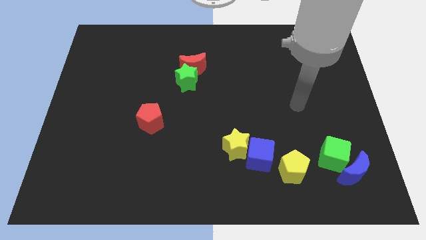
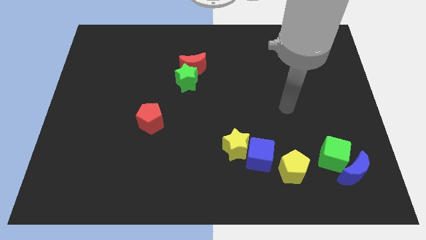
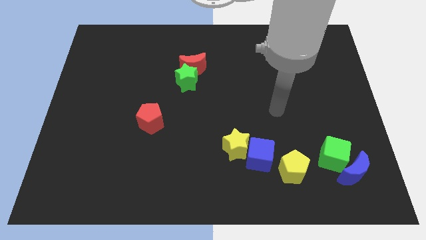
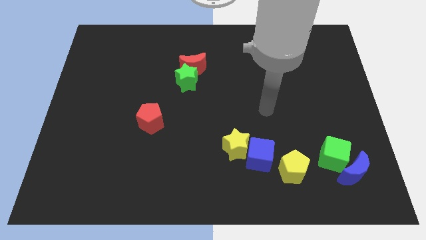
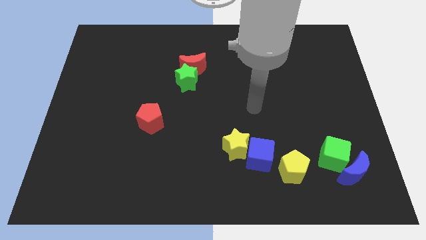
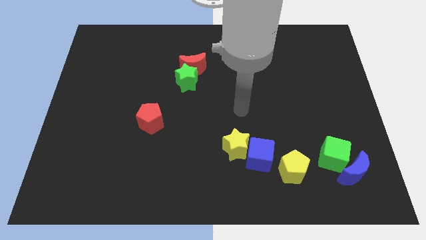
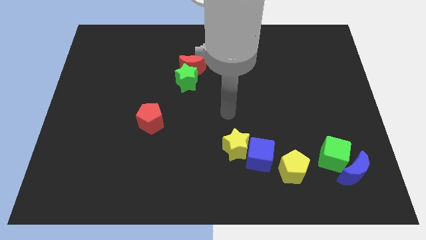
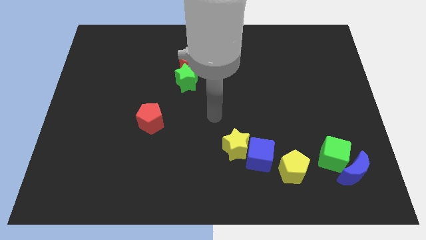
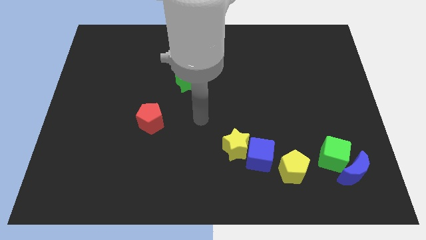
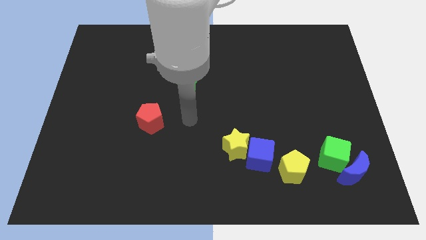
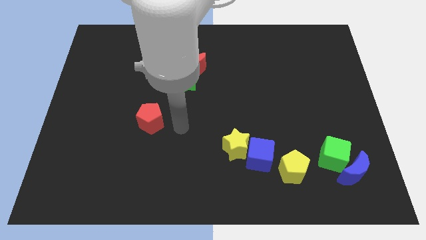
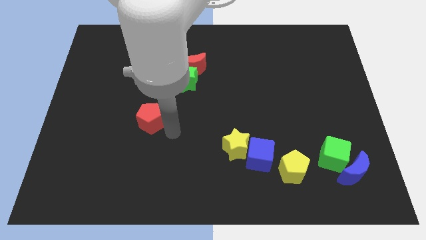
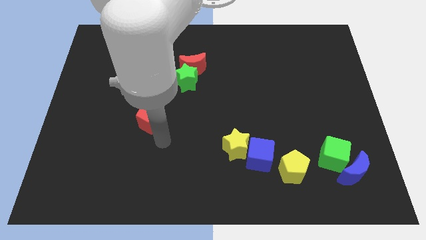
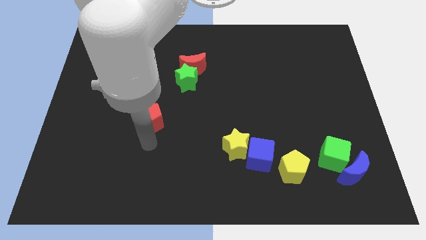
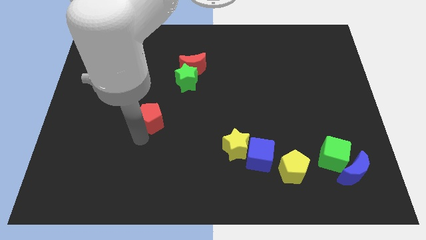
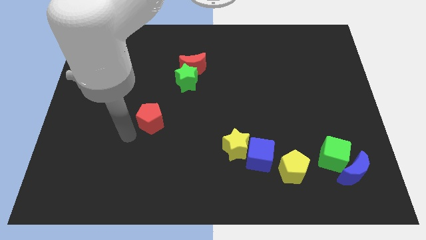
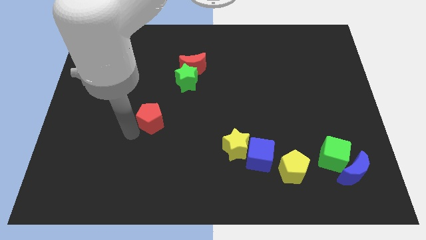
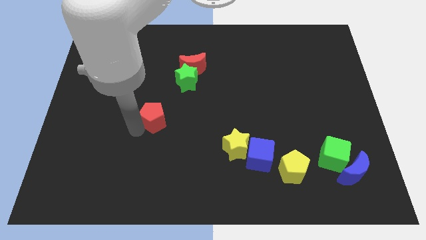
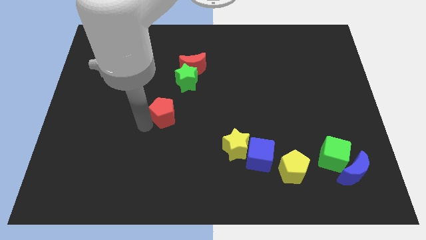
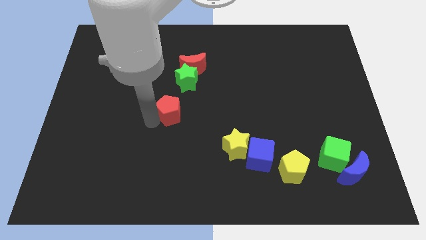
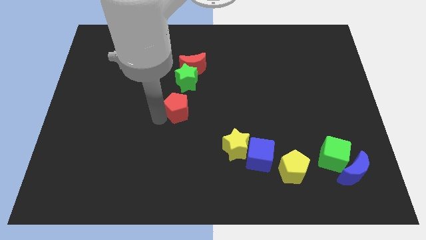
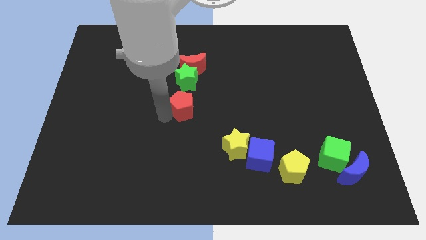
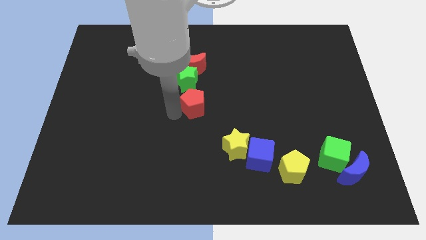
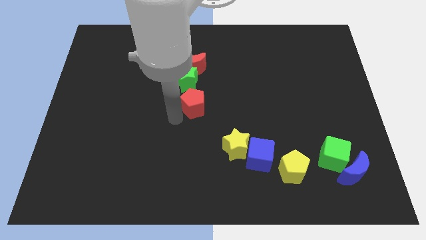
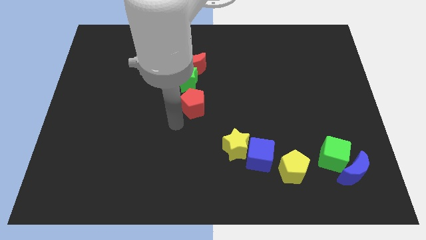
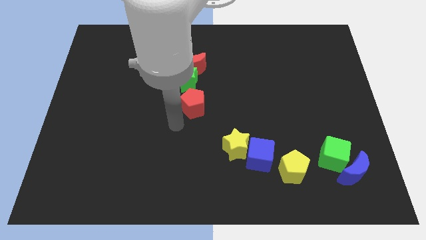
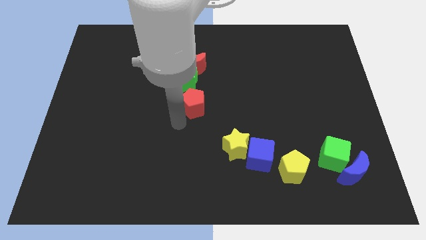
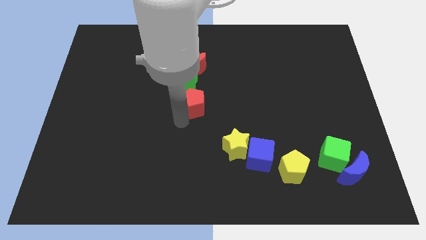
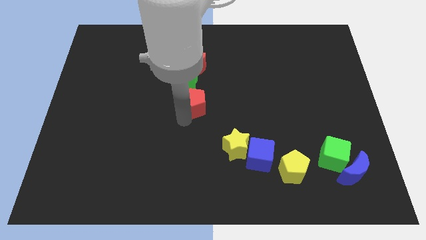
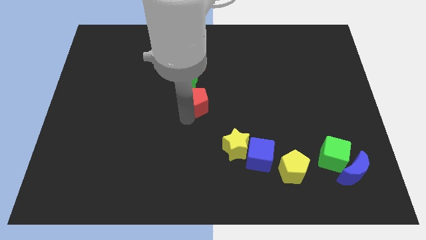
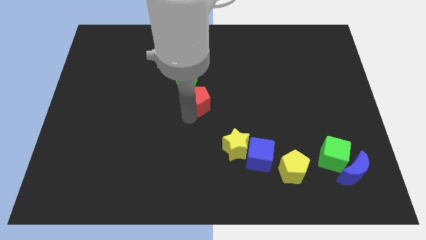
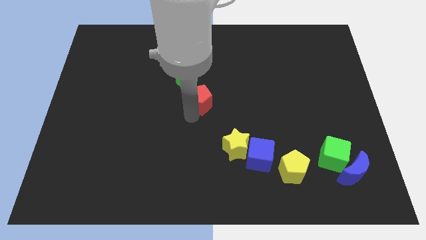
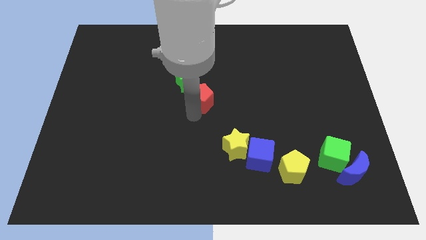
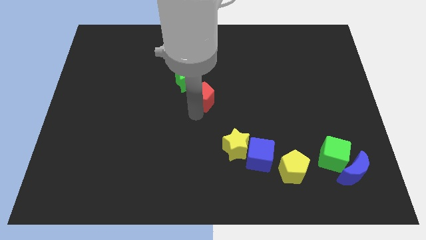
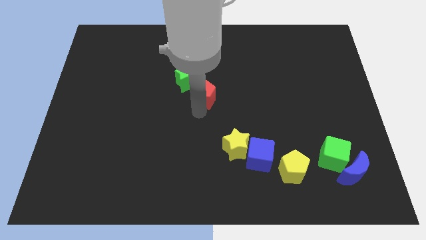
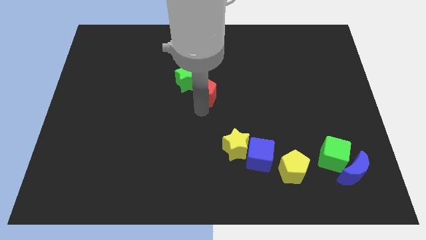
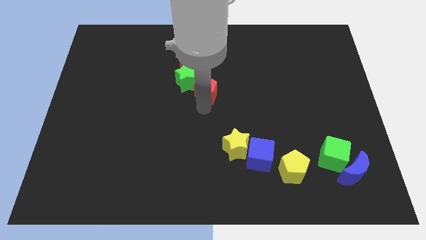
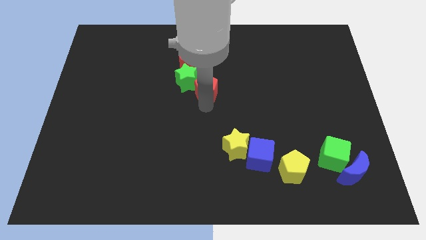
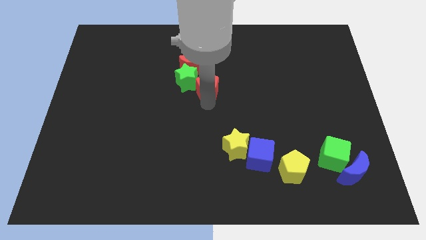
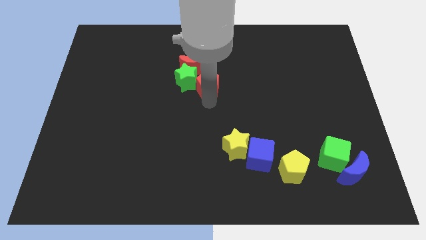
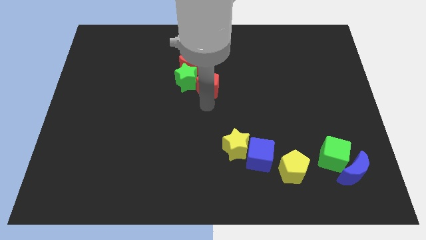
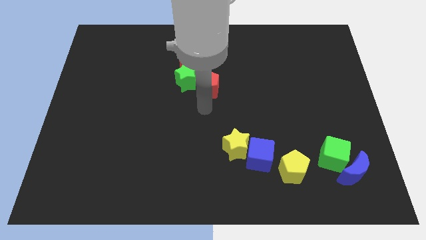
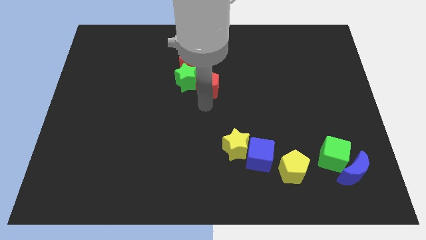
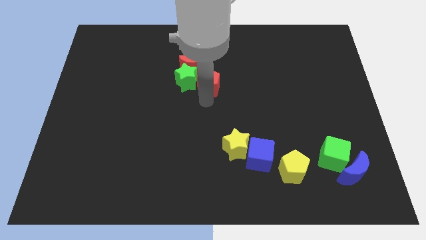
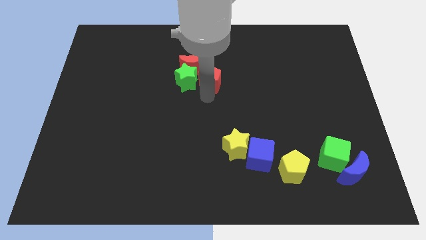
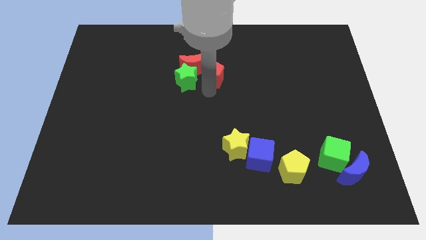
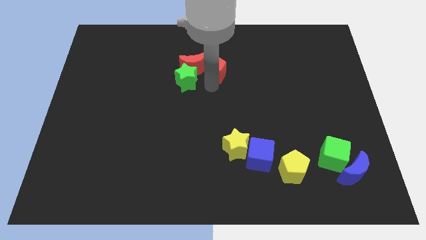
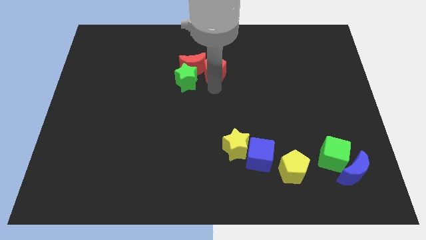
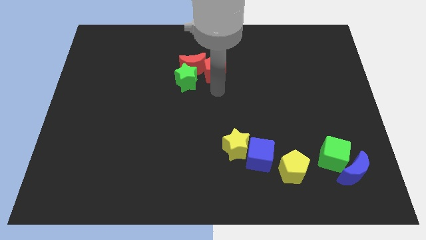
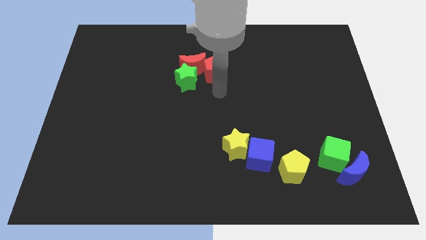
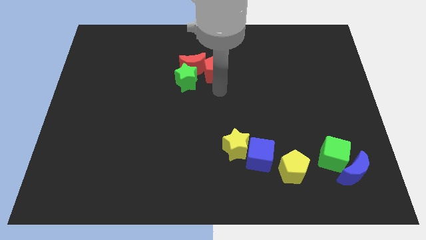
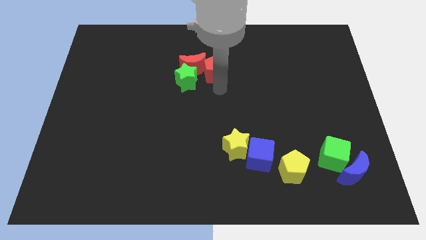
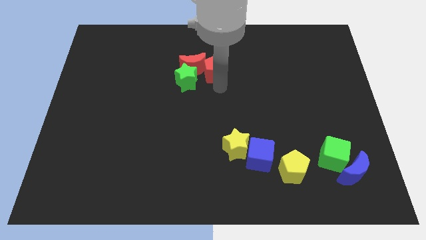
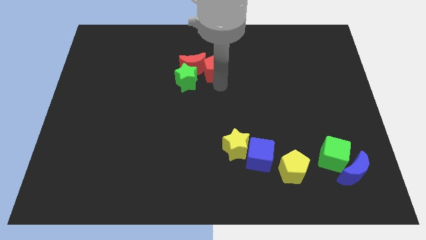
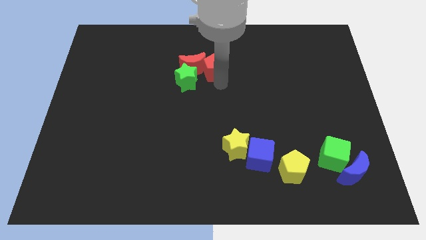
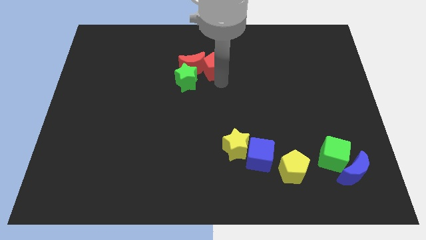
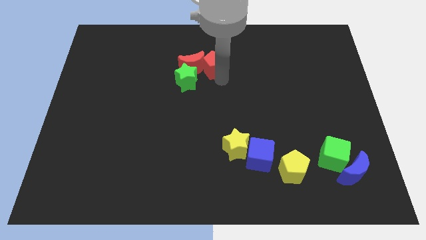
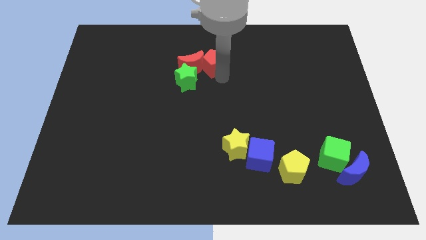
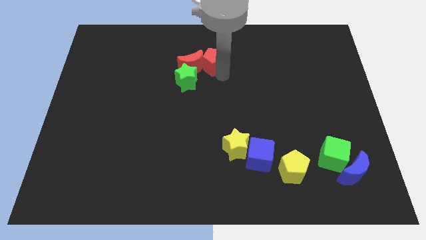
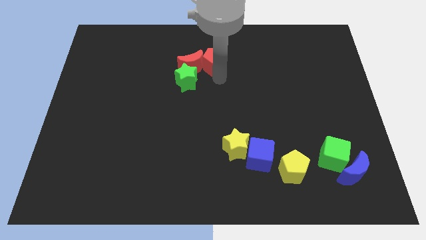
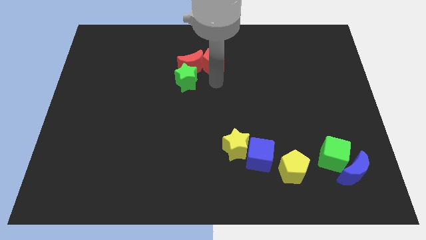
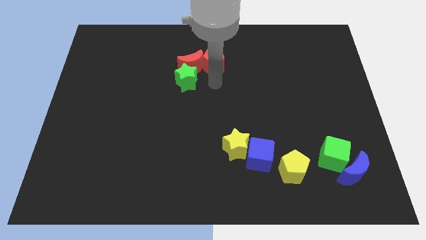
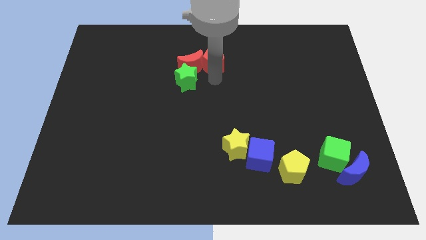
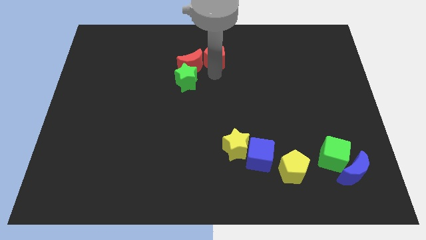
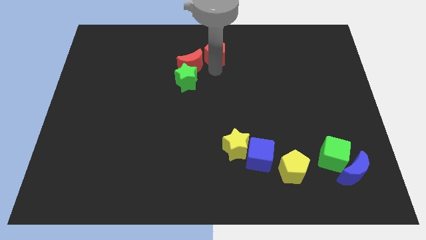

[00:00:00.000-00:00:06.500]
put the red pentagon to the towards your base
